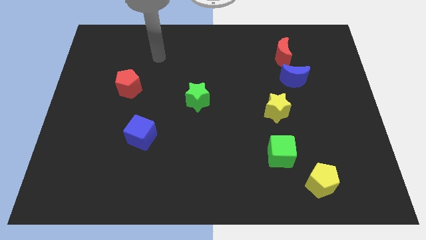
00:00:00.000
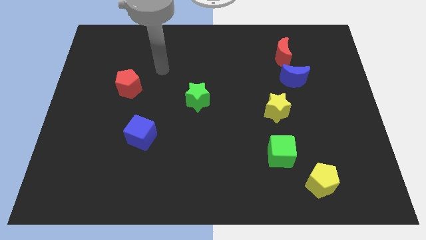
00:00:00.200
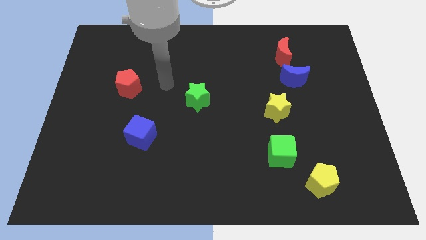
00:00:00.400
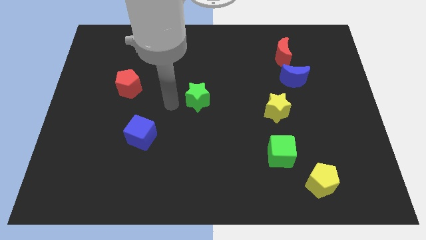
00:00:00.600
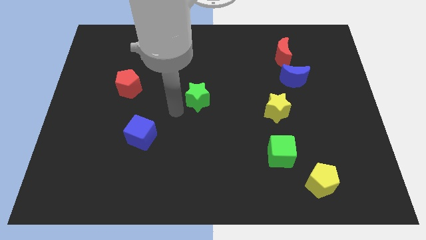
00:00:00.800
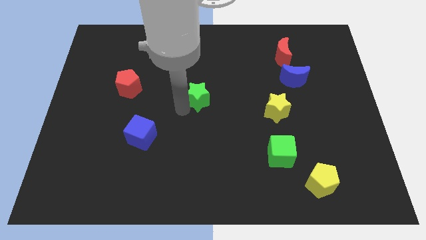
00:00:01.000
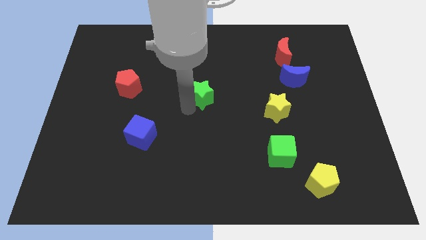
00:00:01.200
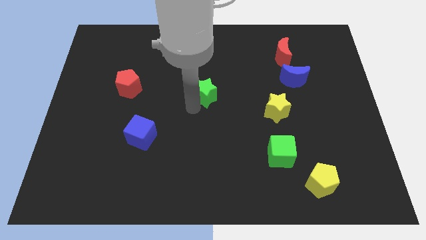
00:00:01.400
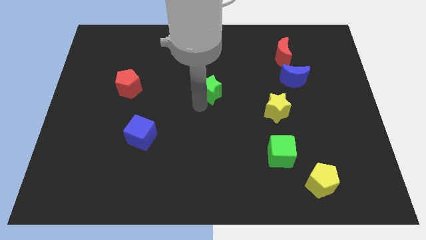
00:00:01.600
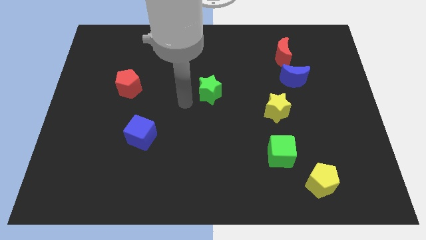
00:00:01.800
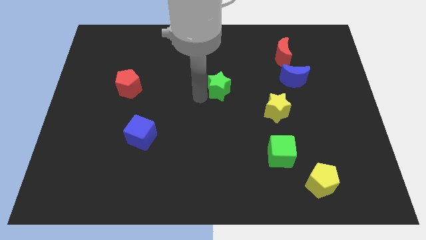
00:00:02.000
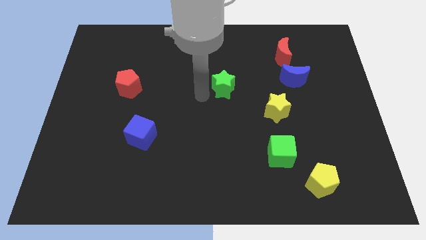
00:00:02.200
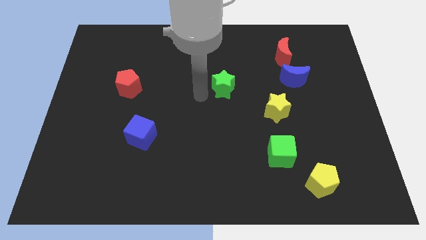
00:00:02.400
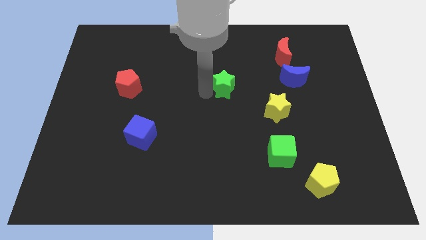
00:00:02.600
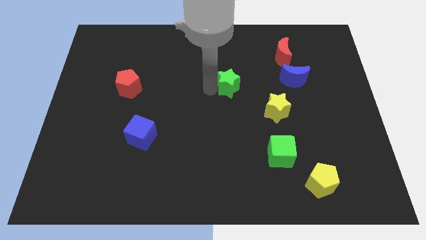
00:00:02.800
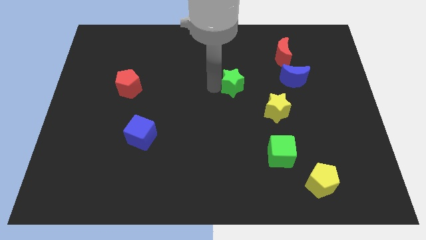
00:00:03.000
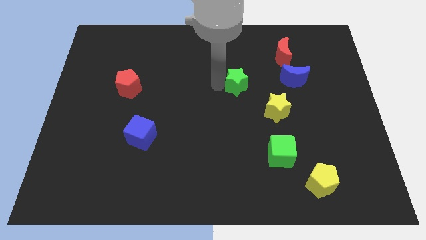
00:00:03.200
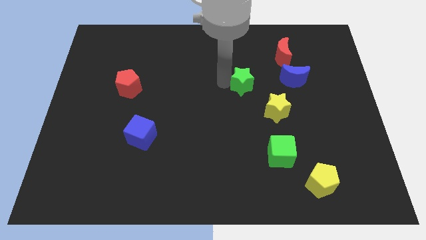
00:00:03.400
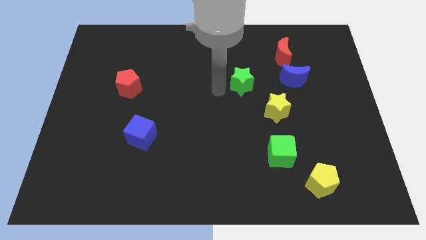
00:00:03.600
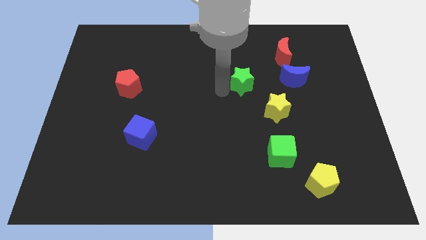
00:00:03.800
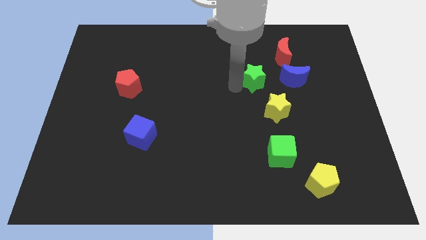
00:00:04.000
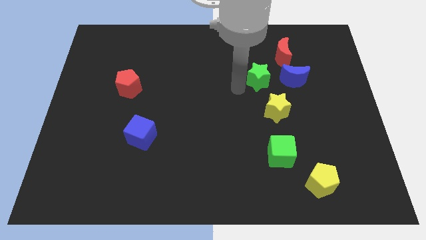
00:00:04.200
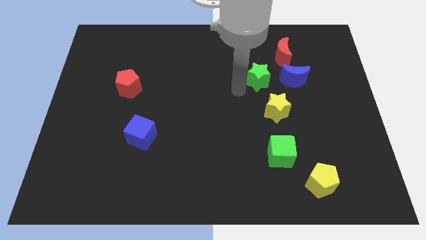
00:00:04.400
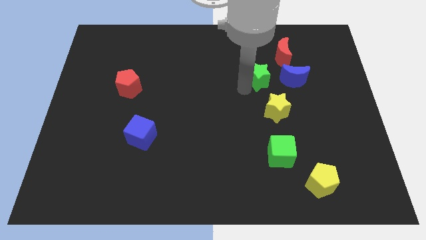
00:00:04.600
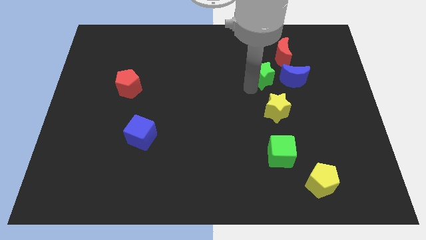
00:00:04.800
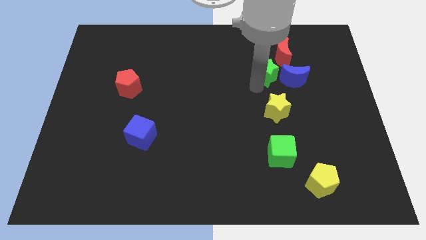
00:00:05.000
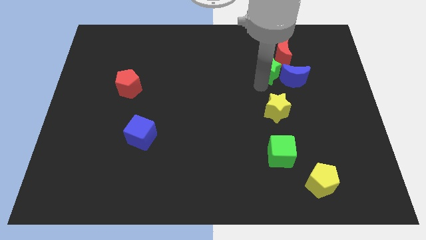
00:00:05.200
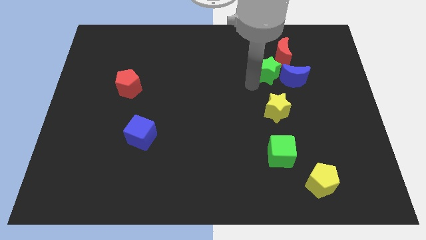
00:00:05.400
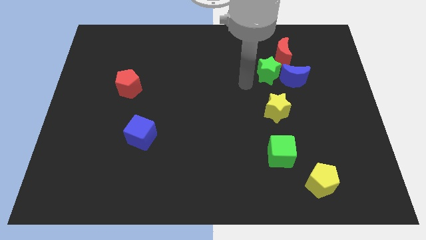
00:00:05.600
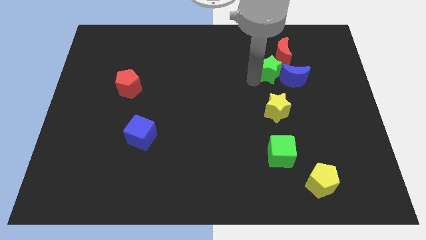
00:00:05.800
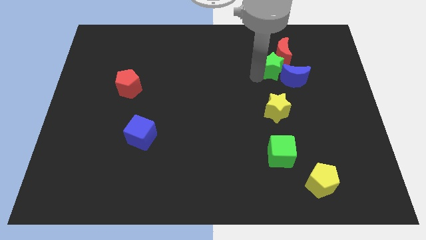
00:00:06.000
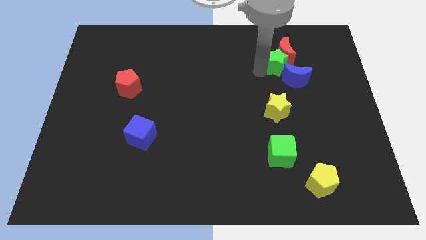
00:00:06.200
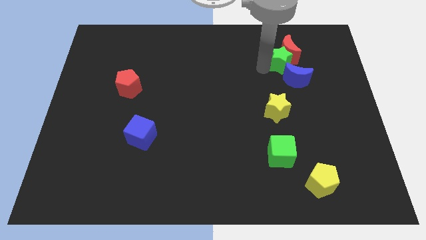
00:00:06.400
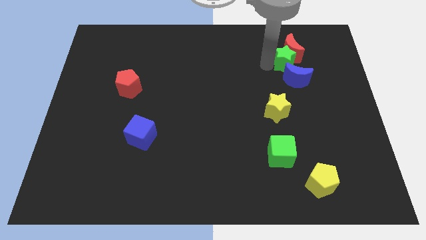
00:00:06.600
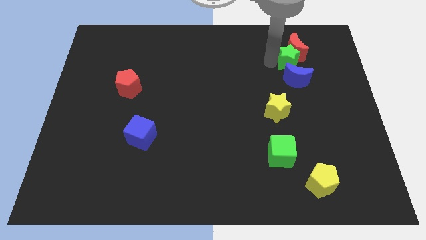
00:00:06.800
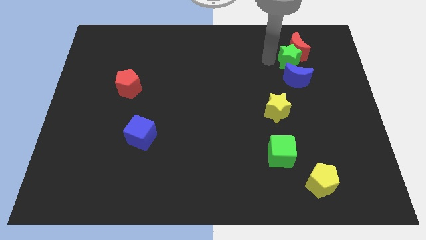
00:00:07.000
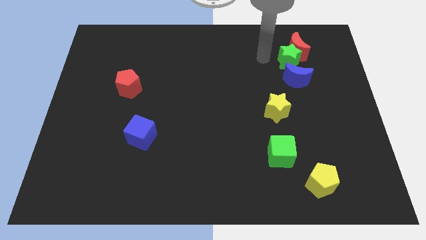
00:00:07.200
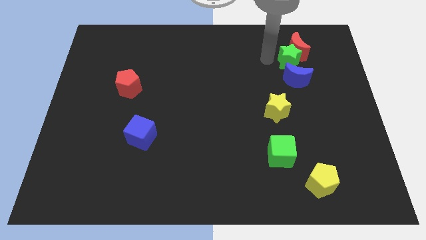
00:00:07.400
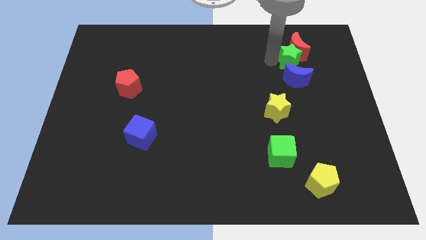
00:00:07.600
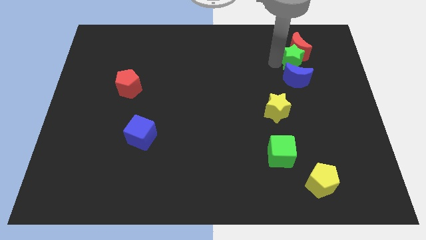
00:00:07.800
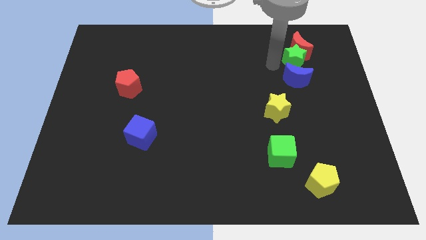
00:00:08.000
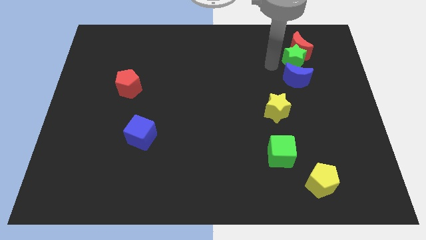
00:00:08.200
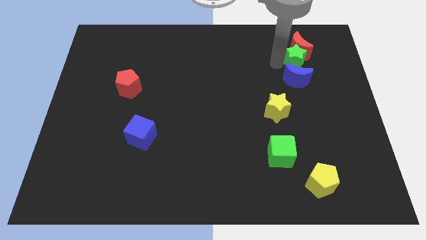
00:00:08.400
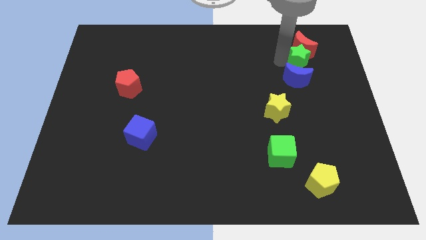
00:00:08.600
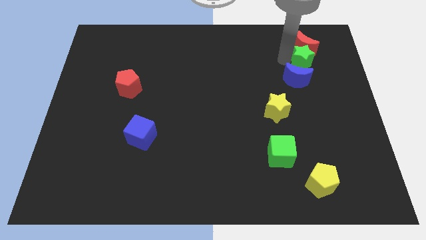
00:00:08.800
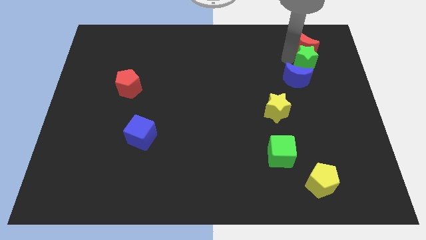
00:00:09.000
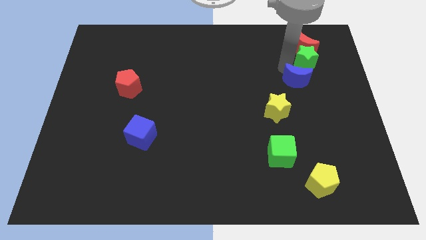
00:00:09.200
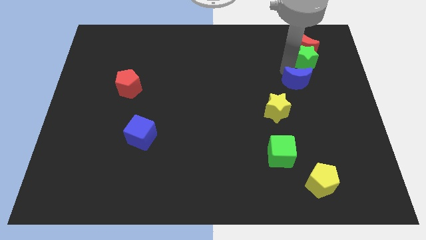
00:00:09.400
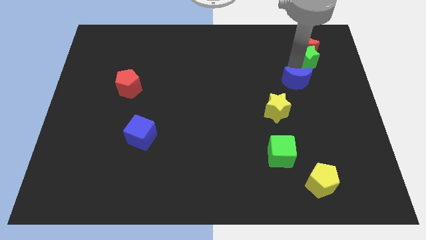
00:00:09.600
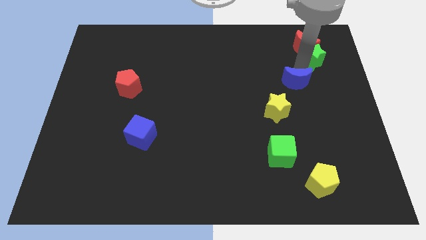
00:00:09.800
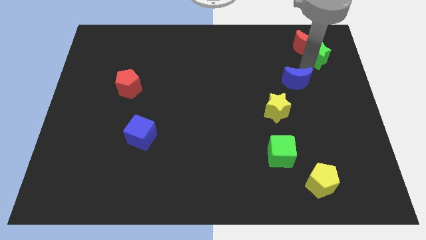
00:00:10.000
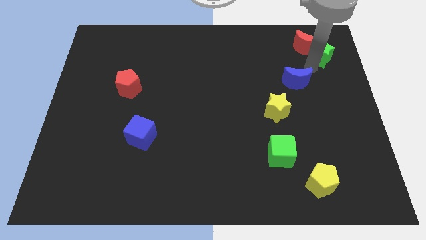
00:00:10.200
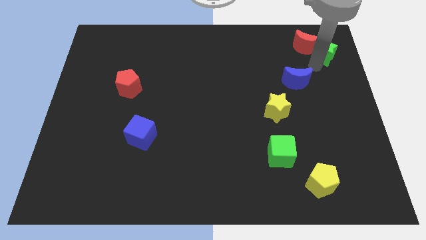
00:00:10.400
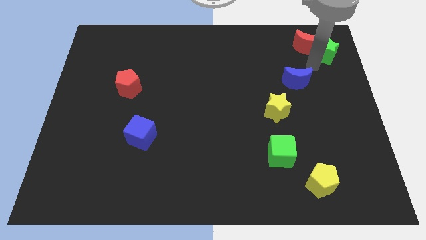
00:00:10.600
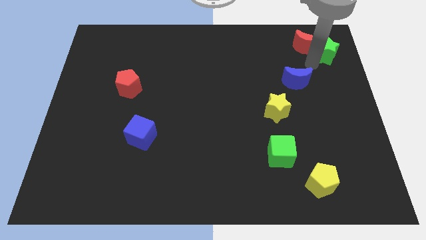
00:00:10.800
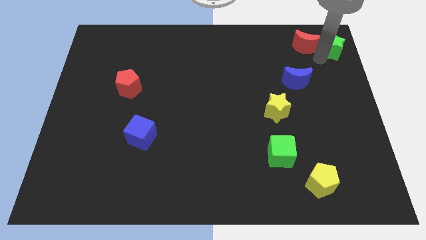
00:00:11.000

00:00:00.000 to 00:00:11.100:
slide the green star to the upper right corner
